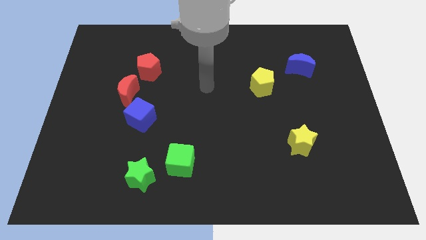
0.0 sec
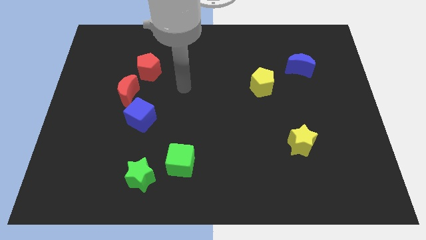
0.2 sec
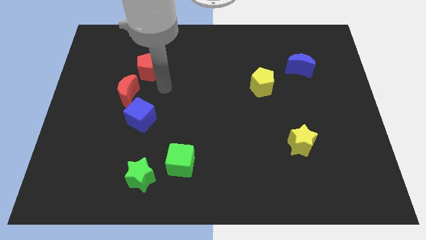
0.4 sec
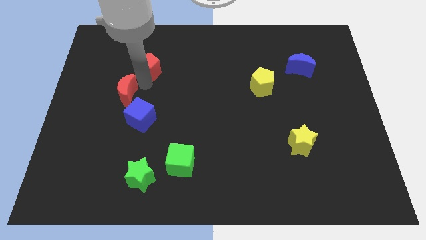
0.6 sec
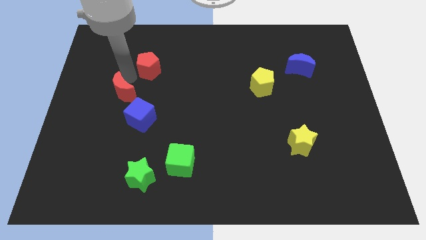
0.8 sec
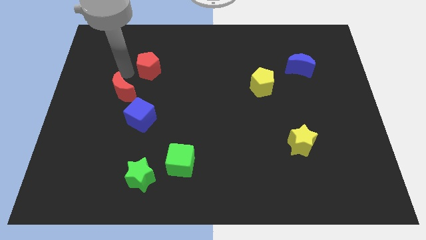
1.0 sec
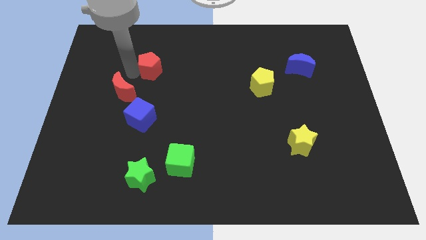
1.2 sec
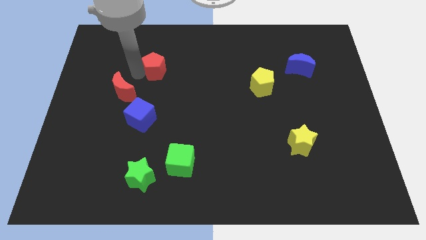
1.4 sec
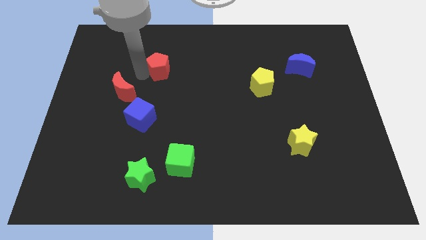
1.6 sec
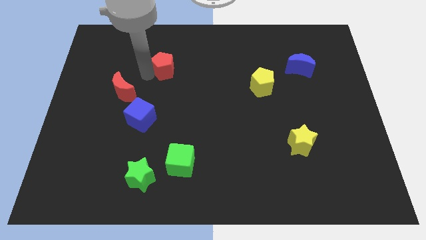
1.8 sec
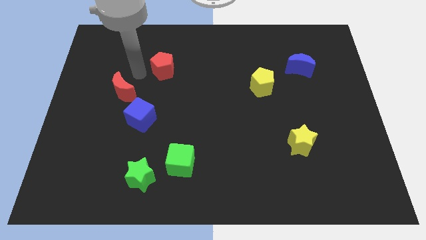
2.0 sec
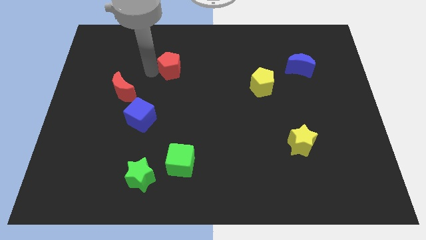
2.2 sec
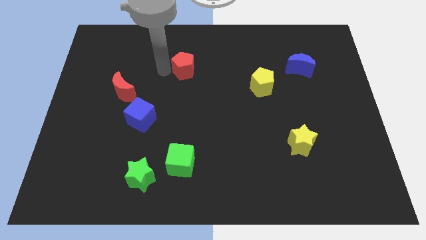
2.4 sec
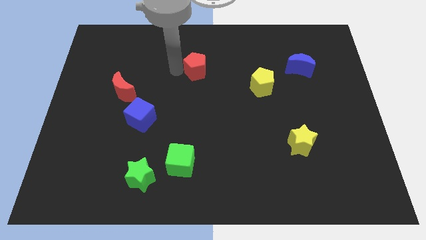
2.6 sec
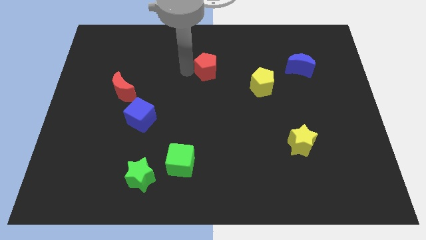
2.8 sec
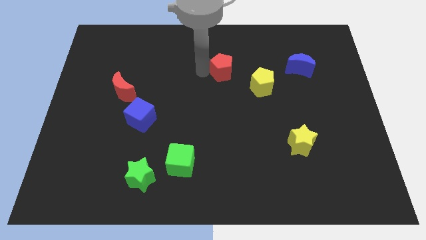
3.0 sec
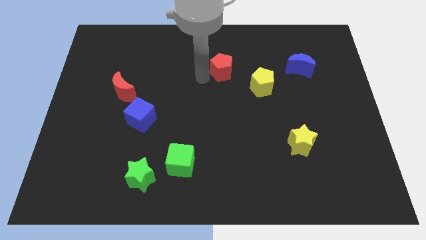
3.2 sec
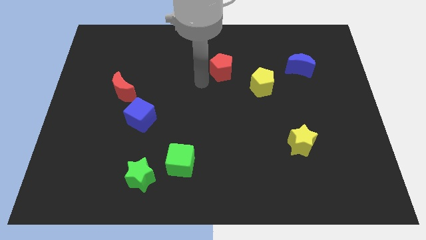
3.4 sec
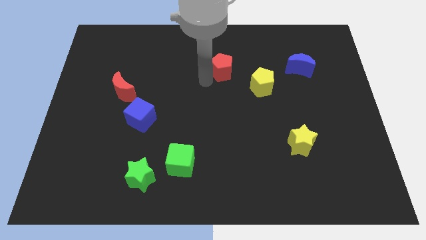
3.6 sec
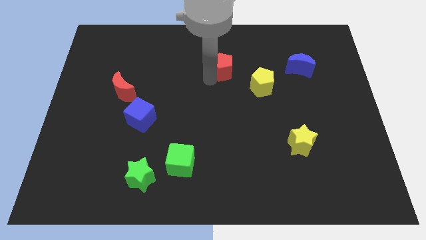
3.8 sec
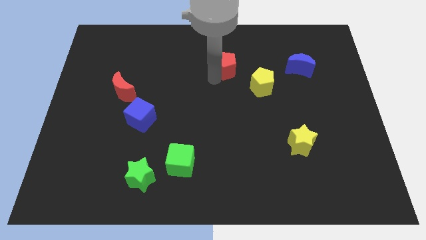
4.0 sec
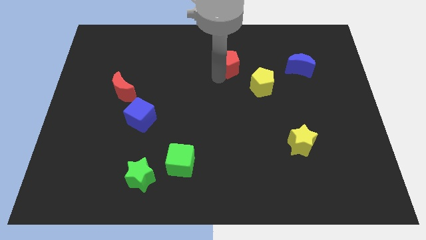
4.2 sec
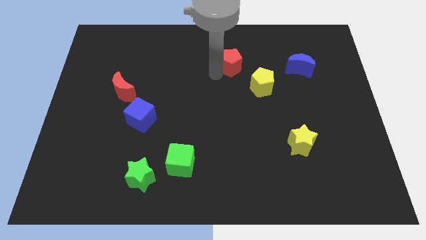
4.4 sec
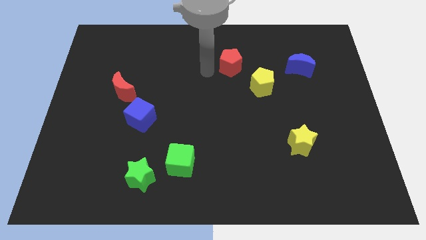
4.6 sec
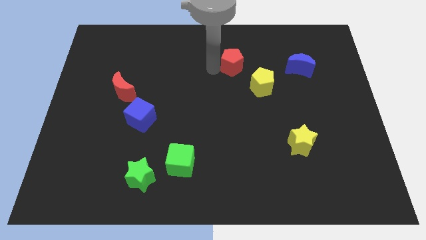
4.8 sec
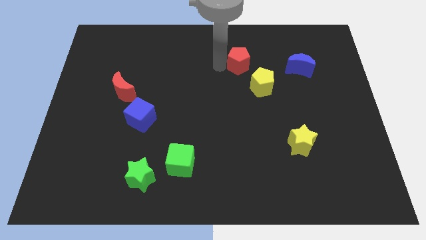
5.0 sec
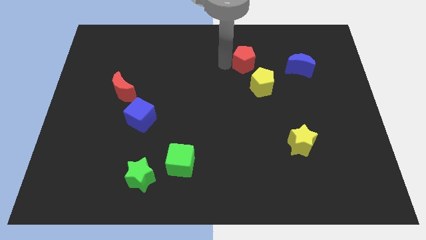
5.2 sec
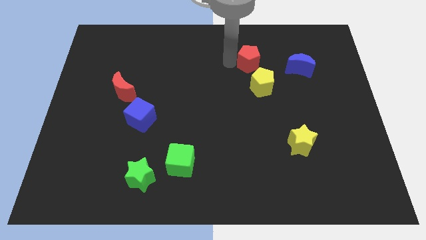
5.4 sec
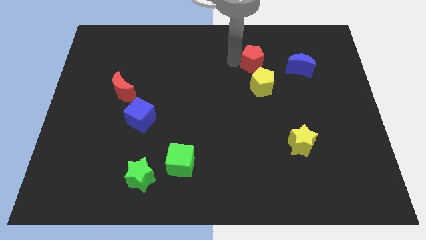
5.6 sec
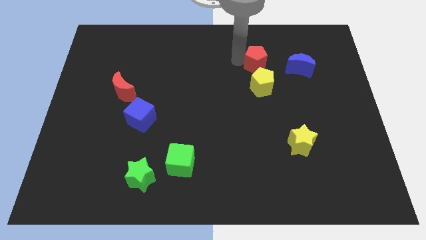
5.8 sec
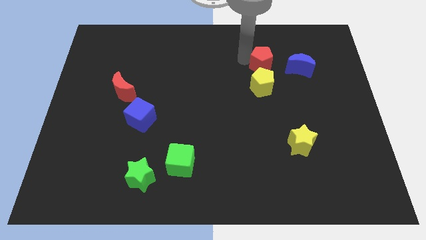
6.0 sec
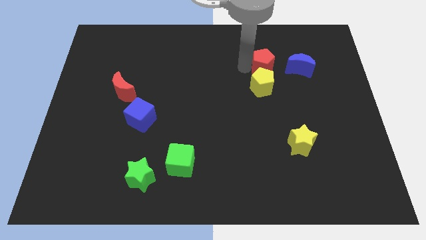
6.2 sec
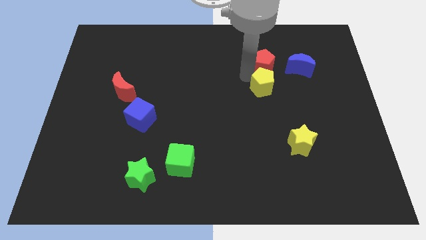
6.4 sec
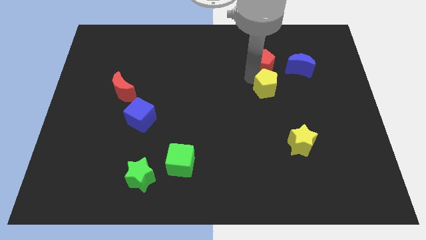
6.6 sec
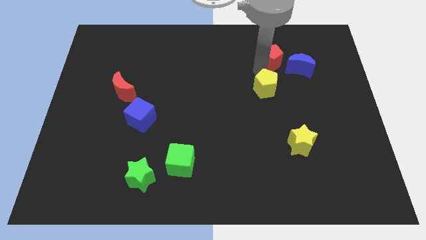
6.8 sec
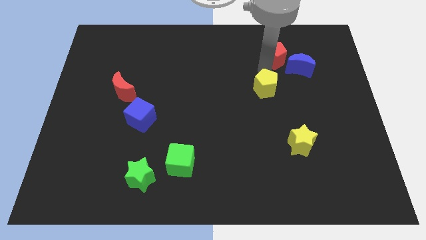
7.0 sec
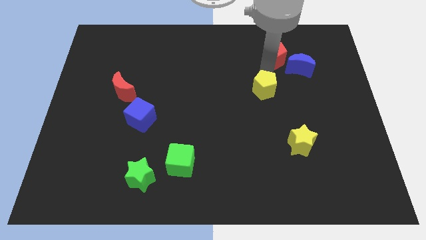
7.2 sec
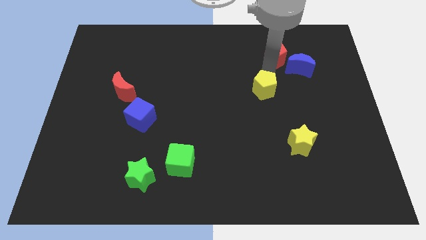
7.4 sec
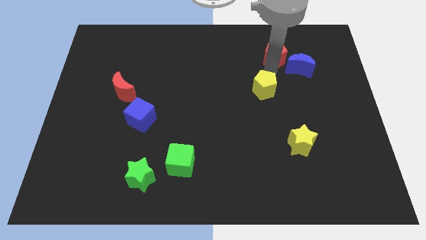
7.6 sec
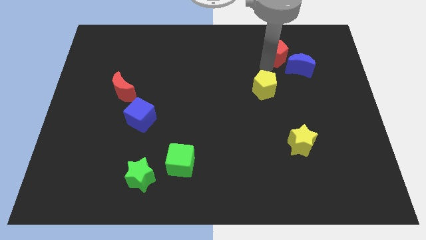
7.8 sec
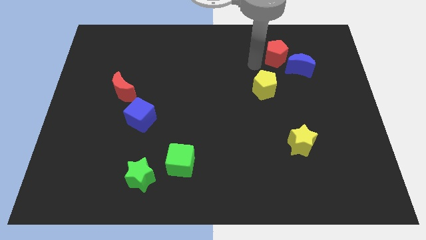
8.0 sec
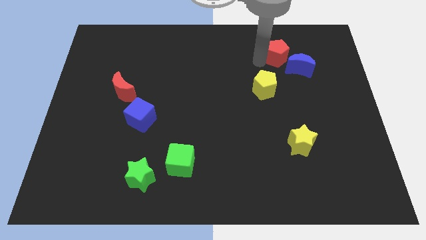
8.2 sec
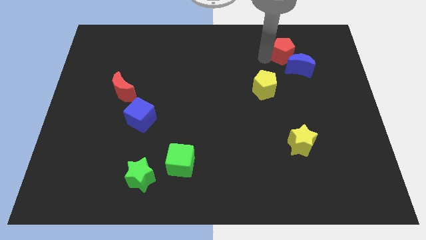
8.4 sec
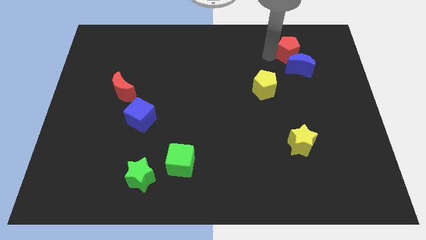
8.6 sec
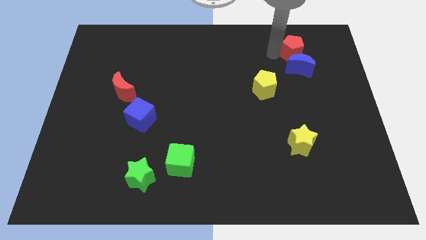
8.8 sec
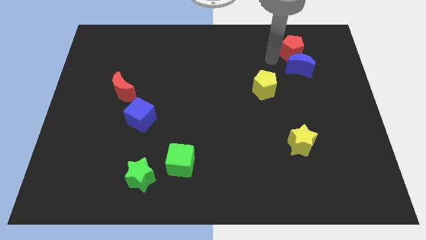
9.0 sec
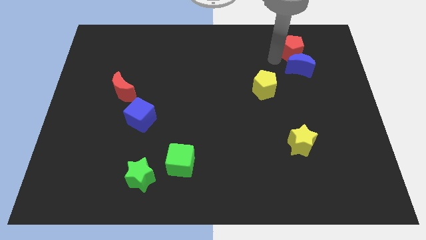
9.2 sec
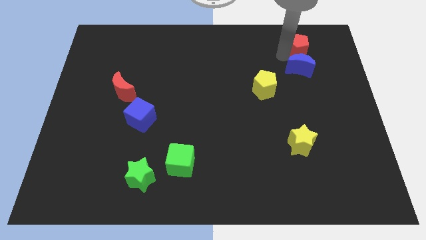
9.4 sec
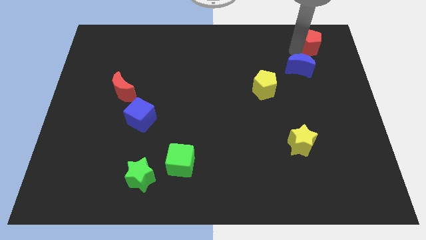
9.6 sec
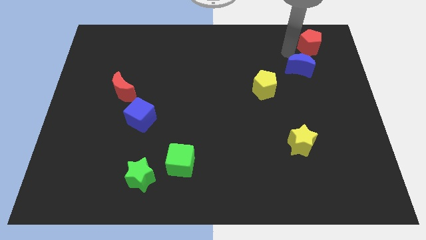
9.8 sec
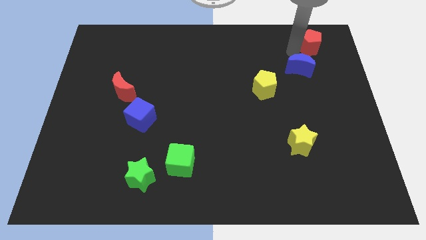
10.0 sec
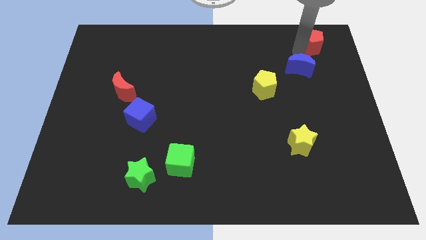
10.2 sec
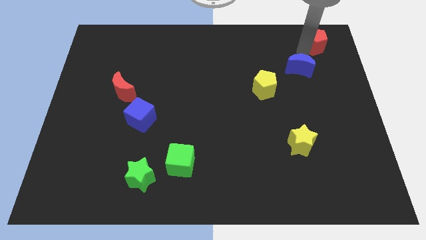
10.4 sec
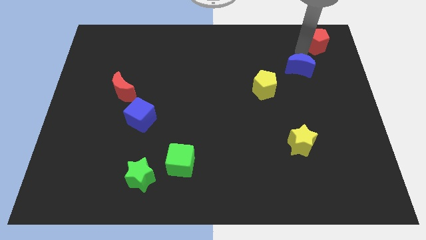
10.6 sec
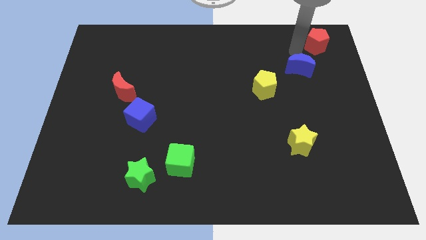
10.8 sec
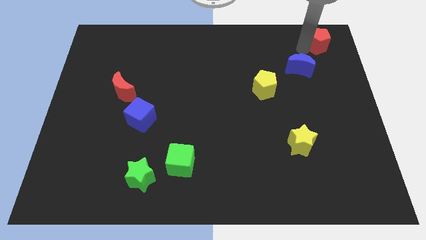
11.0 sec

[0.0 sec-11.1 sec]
move the red pentagon to the upper right corner

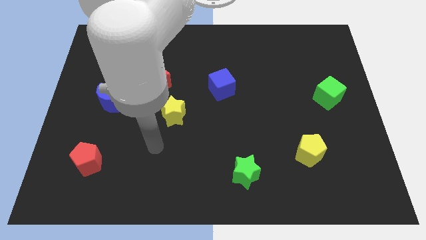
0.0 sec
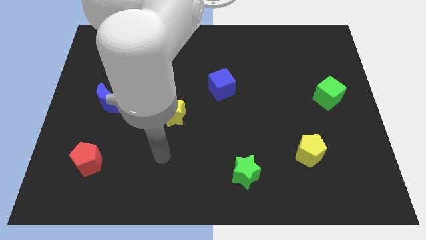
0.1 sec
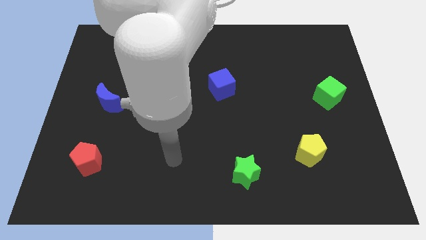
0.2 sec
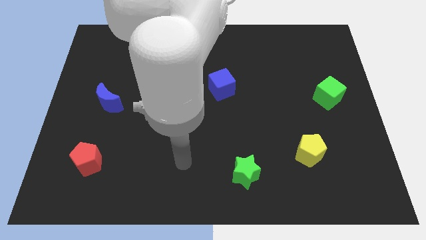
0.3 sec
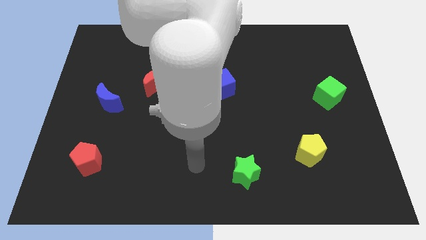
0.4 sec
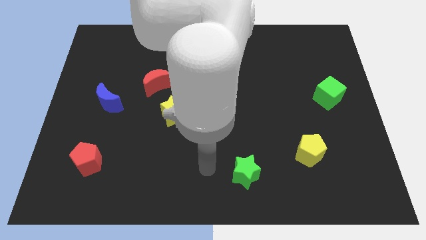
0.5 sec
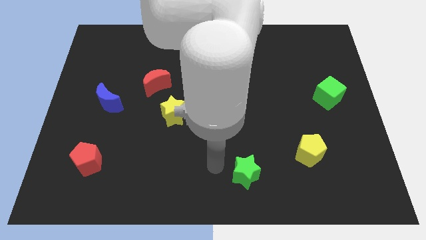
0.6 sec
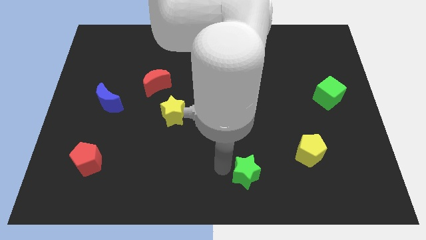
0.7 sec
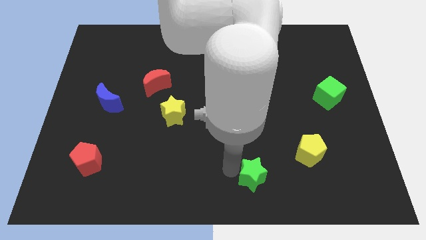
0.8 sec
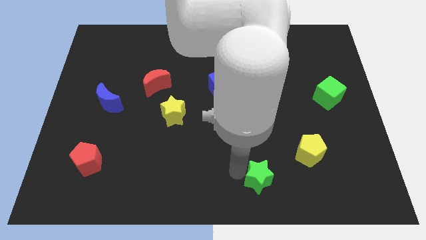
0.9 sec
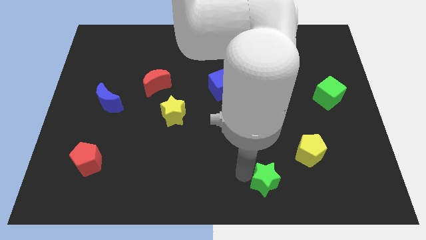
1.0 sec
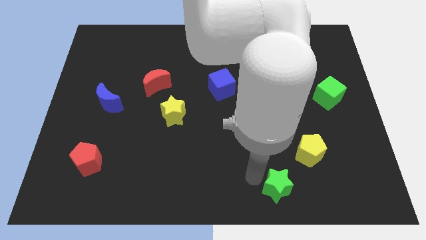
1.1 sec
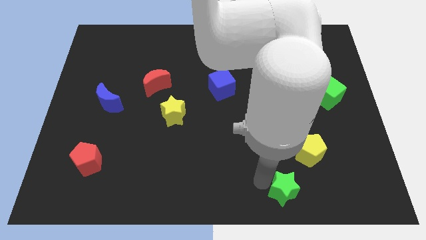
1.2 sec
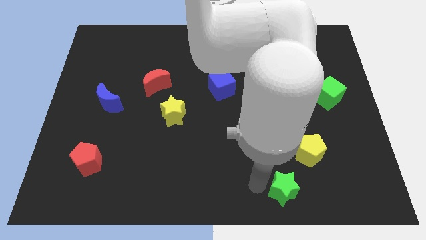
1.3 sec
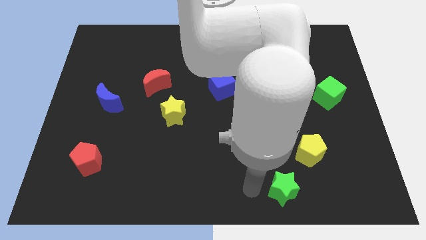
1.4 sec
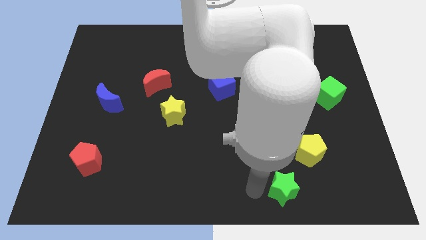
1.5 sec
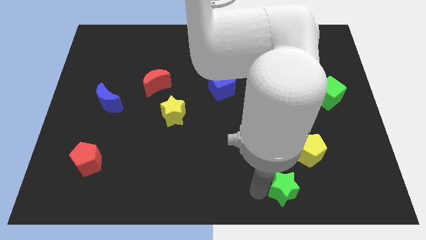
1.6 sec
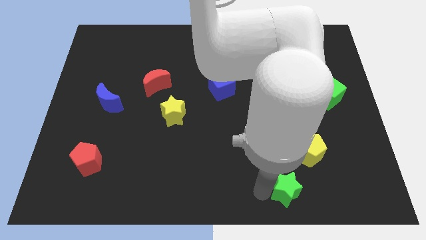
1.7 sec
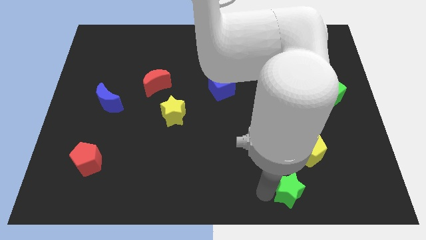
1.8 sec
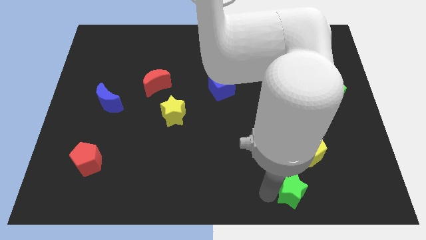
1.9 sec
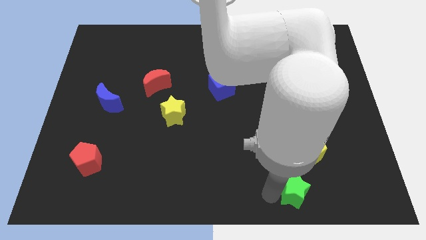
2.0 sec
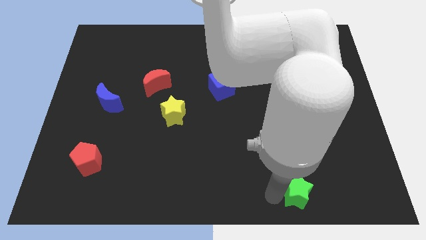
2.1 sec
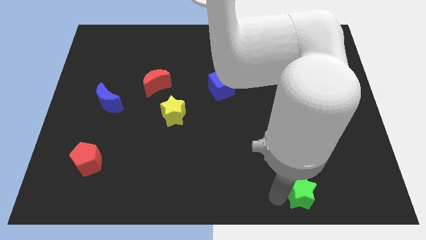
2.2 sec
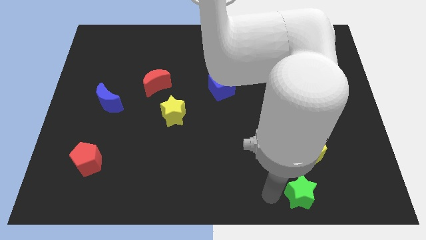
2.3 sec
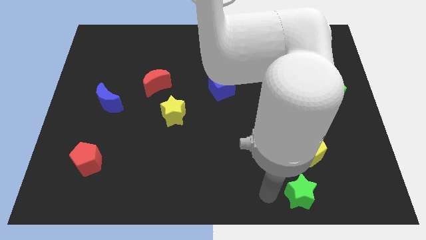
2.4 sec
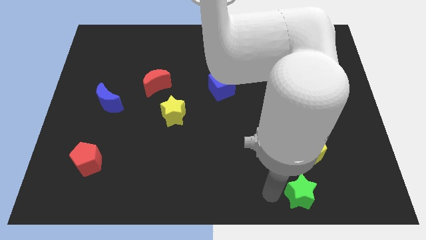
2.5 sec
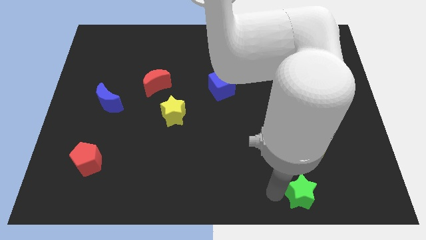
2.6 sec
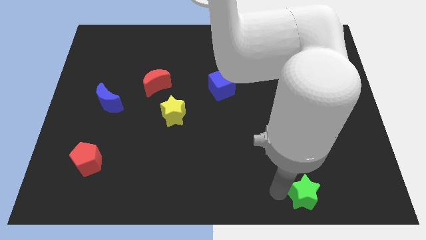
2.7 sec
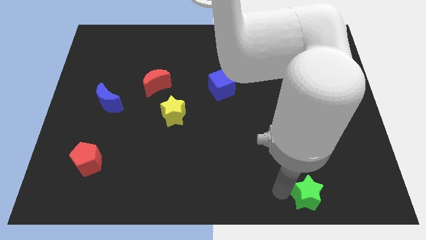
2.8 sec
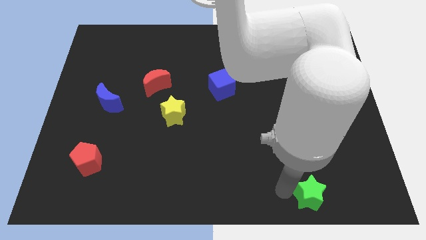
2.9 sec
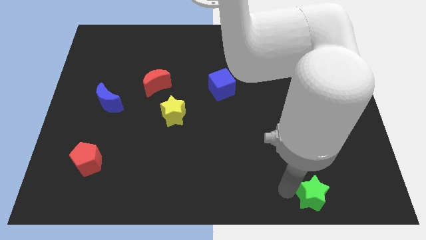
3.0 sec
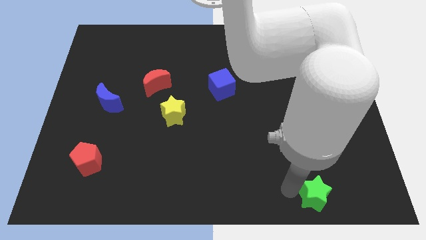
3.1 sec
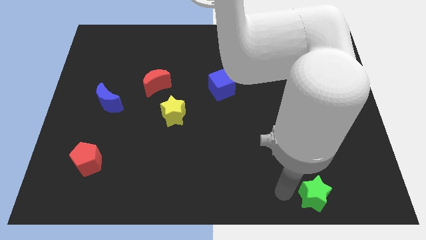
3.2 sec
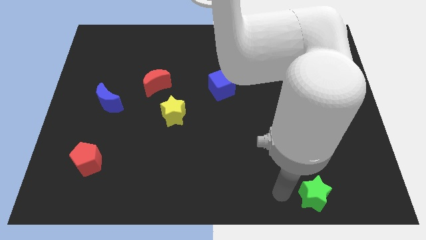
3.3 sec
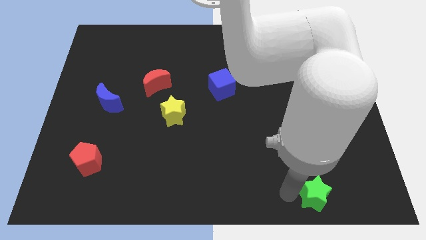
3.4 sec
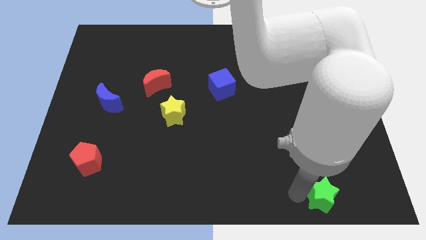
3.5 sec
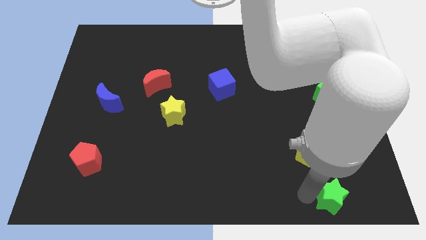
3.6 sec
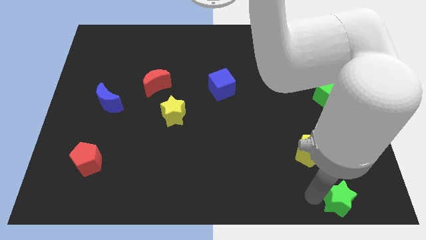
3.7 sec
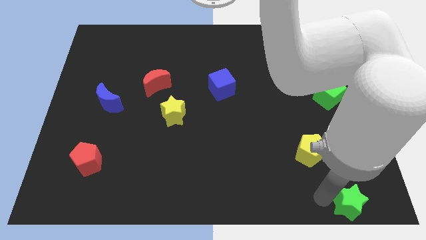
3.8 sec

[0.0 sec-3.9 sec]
slide the green star to the lower right corner
